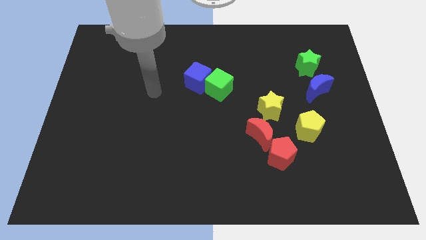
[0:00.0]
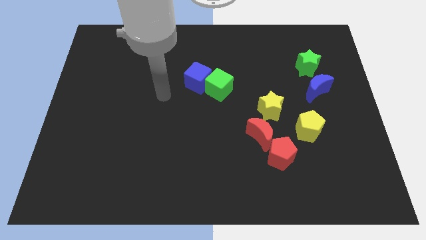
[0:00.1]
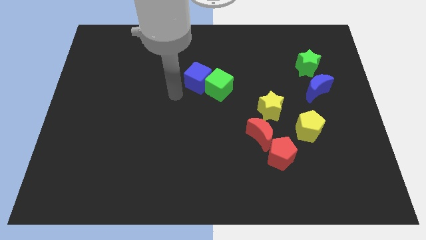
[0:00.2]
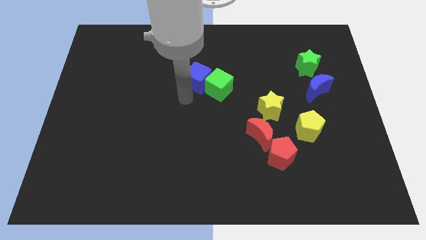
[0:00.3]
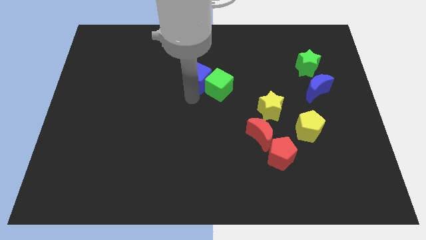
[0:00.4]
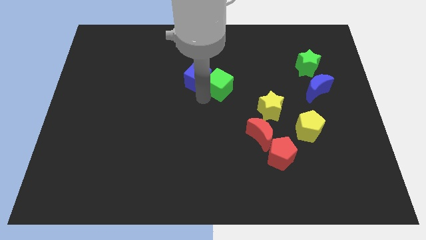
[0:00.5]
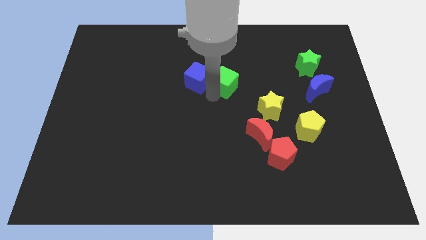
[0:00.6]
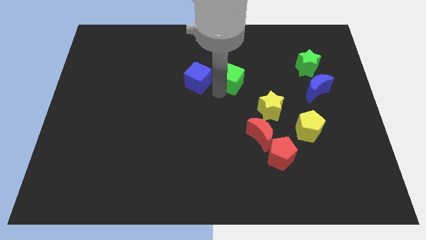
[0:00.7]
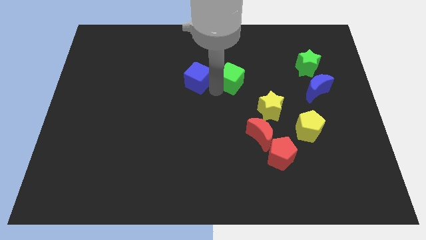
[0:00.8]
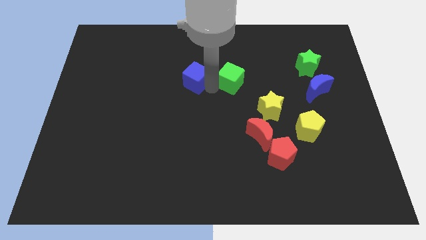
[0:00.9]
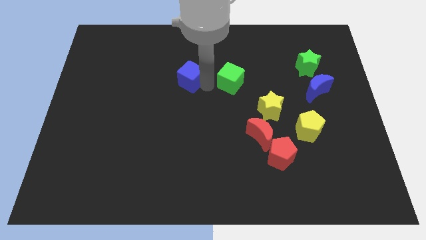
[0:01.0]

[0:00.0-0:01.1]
separate the blue cube from the green cube

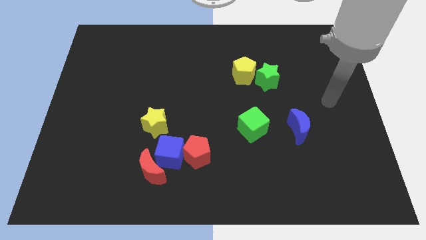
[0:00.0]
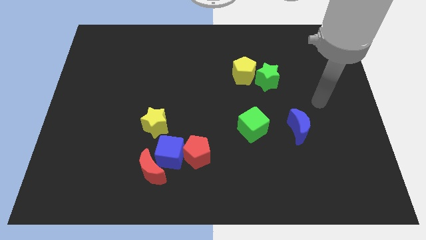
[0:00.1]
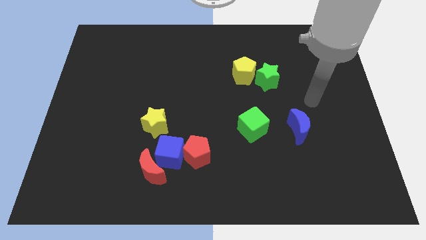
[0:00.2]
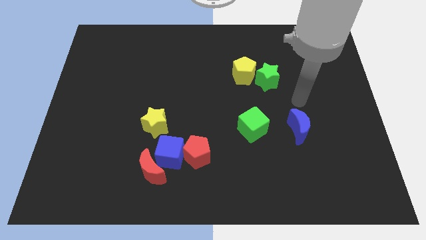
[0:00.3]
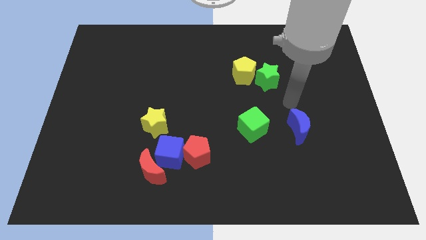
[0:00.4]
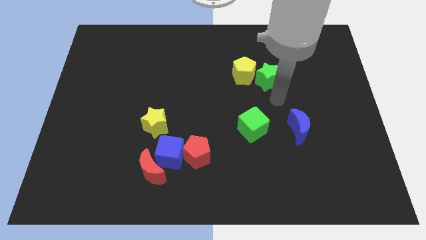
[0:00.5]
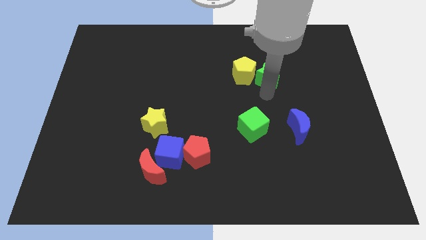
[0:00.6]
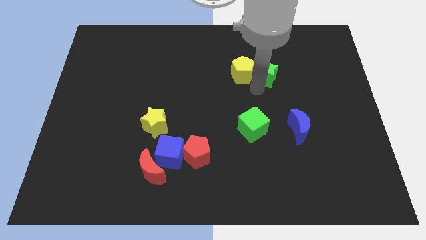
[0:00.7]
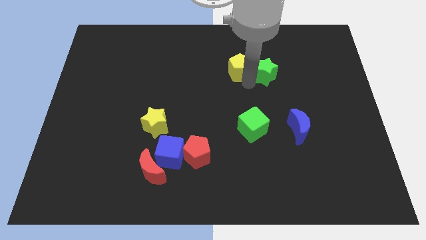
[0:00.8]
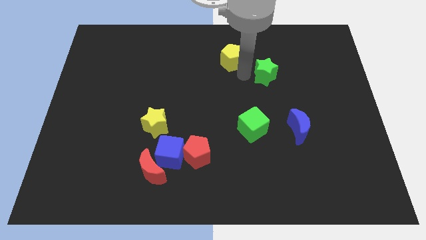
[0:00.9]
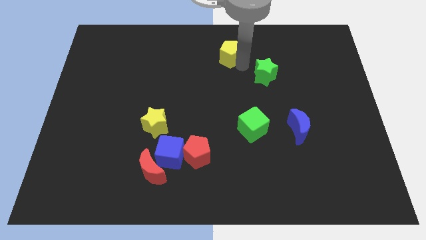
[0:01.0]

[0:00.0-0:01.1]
pull the green star apart from the yellow pentagon

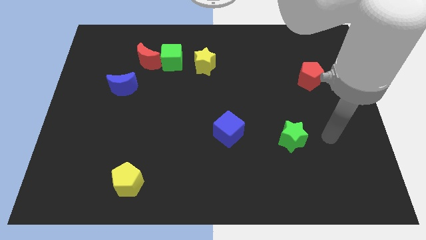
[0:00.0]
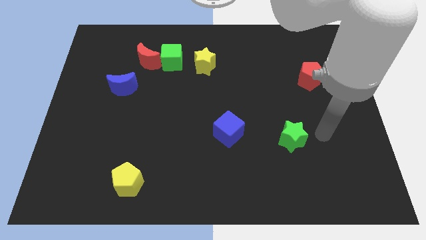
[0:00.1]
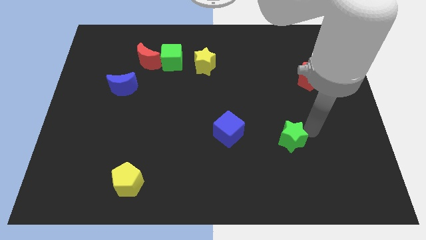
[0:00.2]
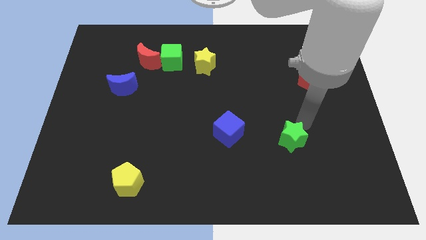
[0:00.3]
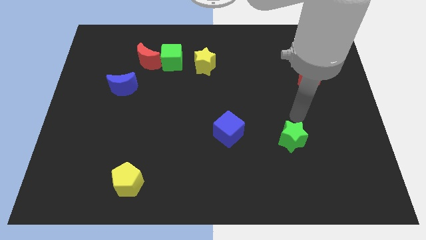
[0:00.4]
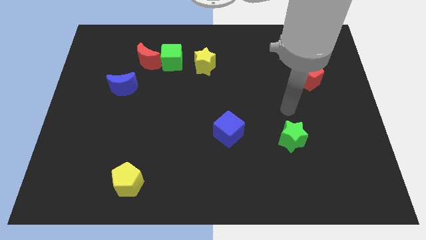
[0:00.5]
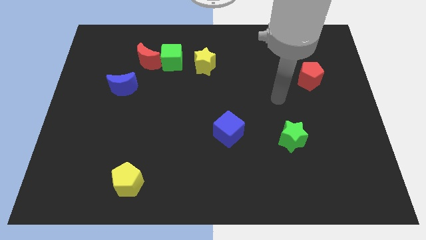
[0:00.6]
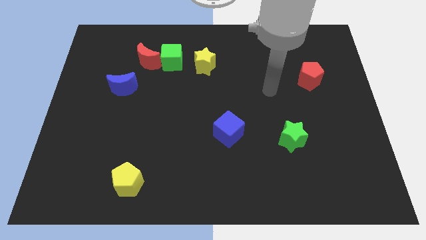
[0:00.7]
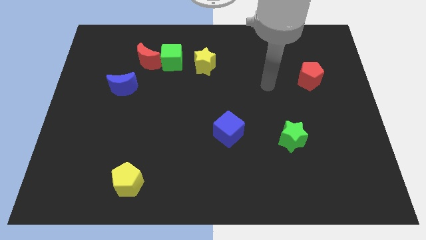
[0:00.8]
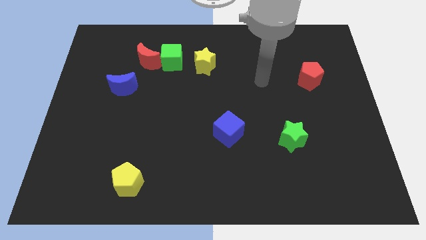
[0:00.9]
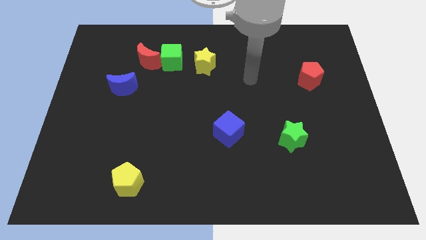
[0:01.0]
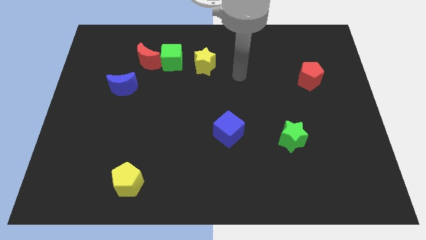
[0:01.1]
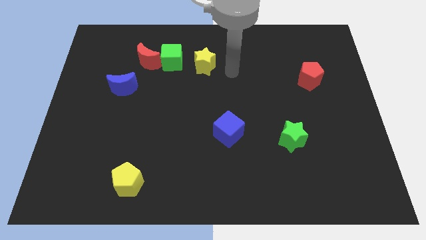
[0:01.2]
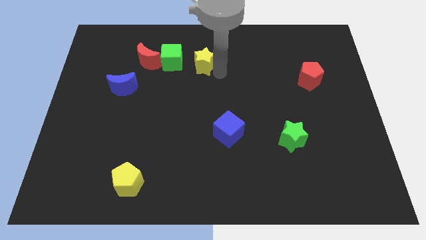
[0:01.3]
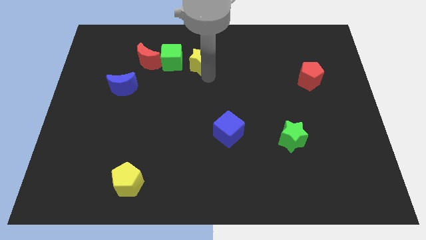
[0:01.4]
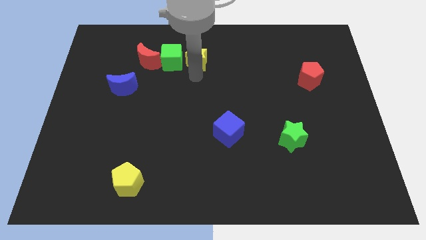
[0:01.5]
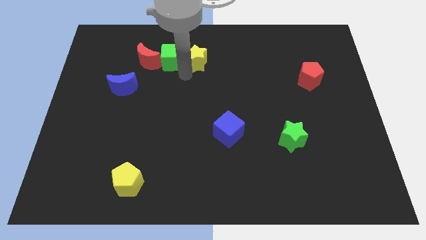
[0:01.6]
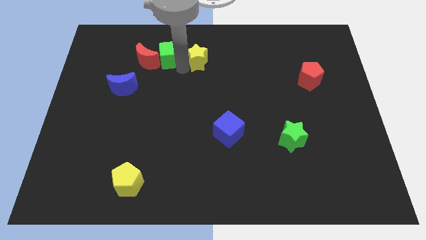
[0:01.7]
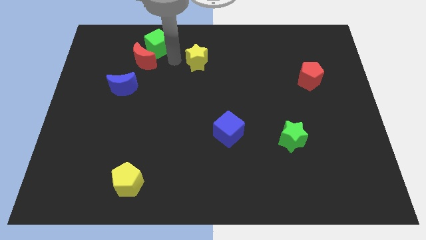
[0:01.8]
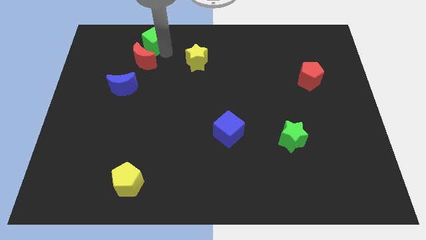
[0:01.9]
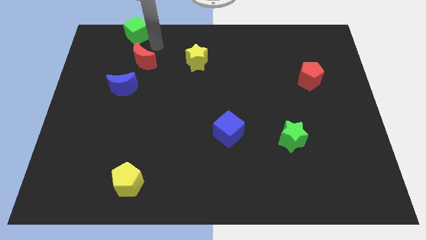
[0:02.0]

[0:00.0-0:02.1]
pull the red moon apart from the green cube

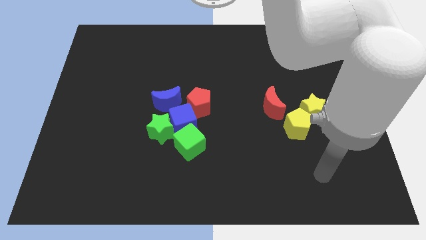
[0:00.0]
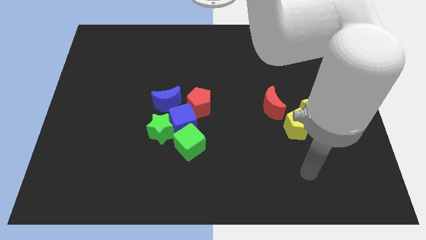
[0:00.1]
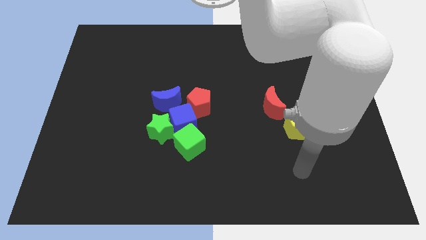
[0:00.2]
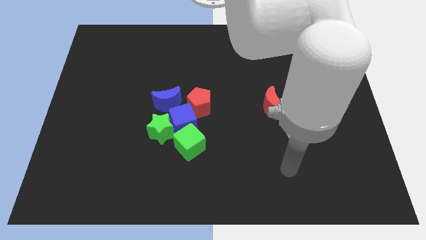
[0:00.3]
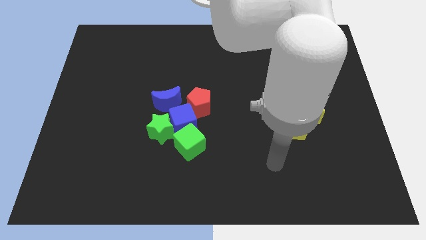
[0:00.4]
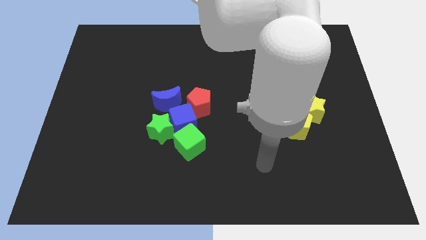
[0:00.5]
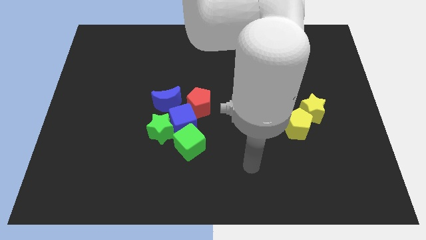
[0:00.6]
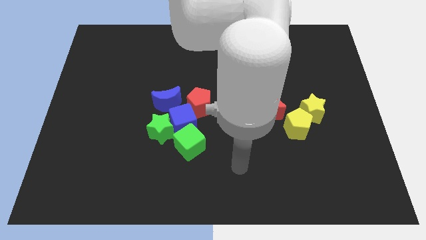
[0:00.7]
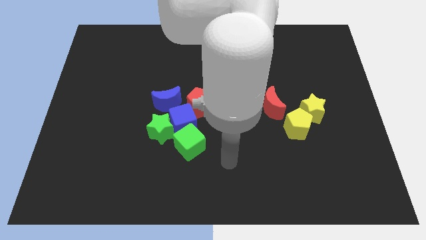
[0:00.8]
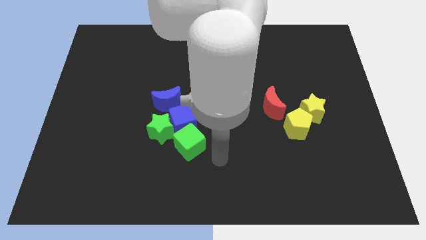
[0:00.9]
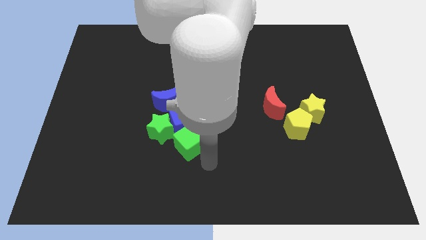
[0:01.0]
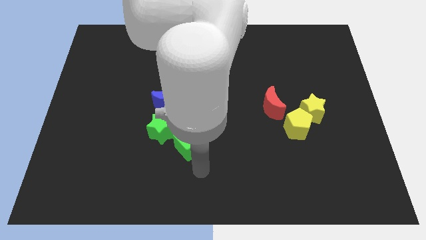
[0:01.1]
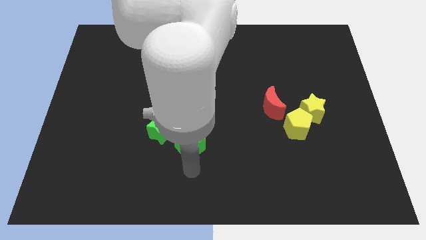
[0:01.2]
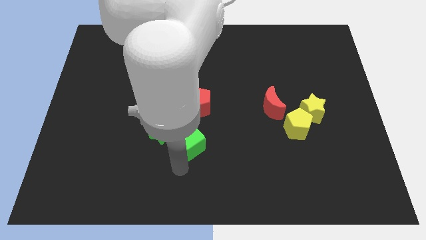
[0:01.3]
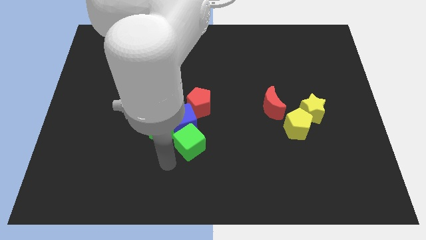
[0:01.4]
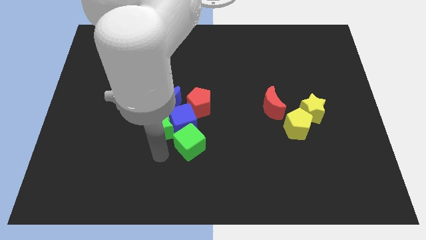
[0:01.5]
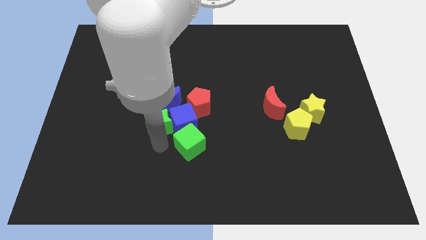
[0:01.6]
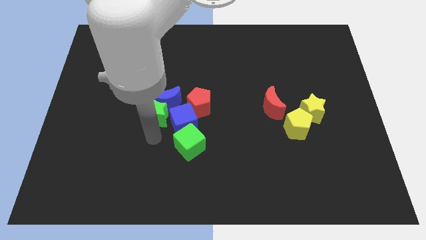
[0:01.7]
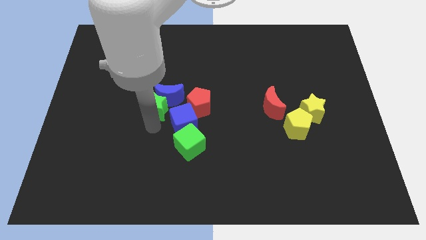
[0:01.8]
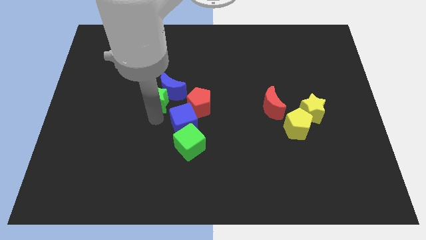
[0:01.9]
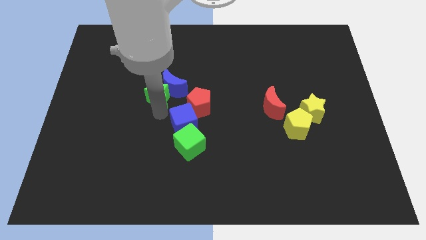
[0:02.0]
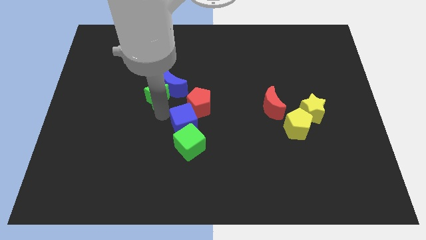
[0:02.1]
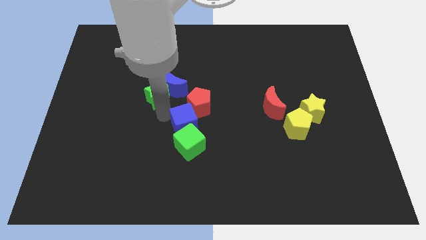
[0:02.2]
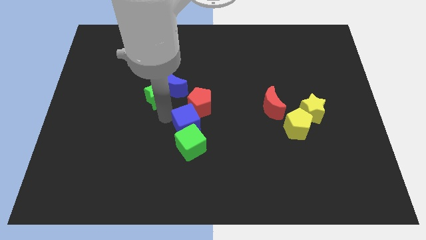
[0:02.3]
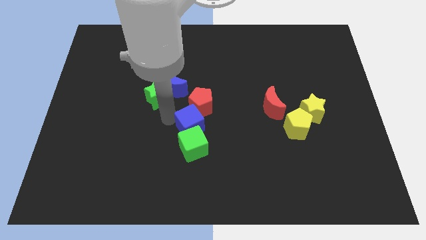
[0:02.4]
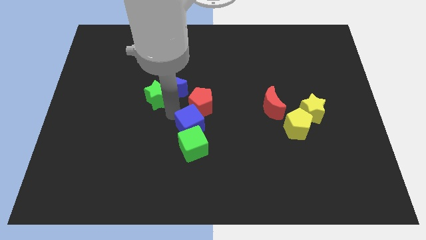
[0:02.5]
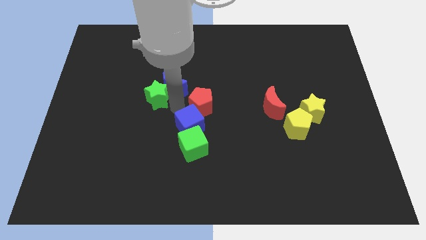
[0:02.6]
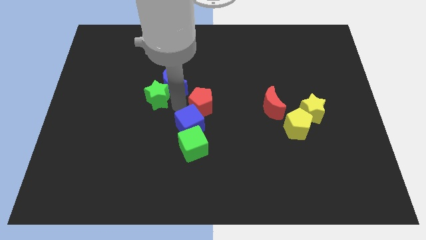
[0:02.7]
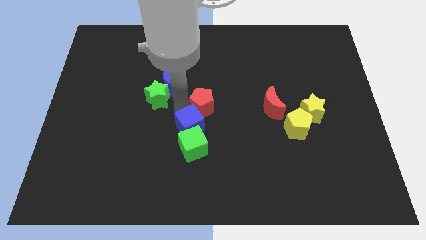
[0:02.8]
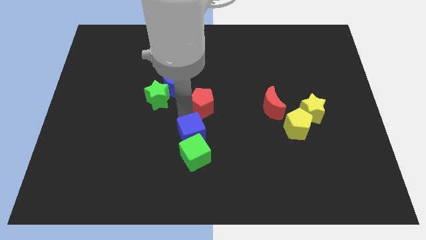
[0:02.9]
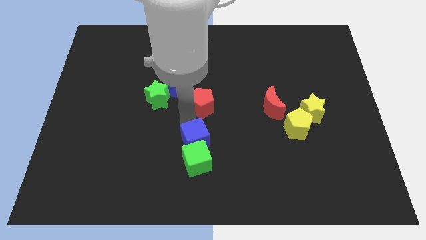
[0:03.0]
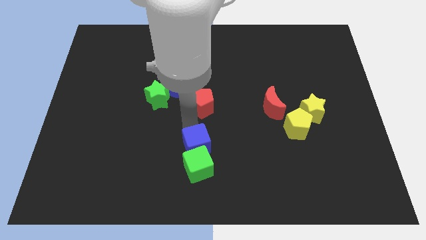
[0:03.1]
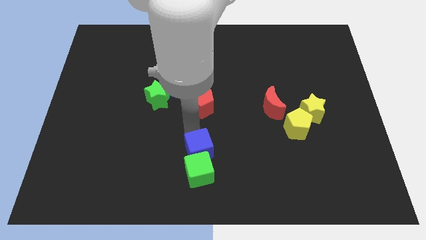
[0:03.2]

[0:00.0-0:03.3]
pull the blue cube apart from the group

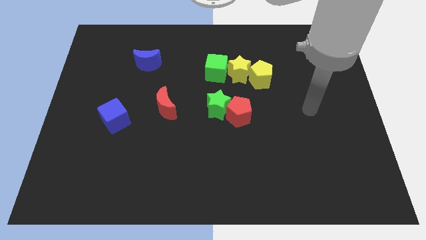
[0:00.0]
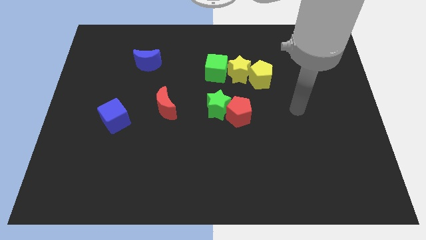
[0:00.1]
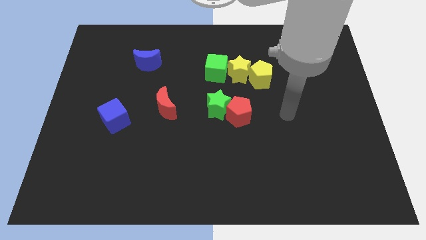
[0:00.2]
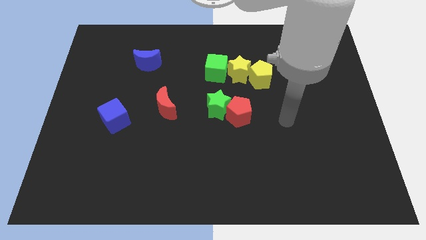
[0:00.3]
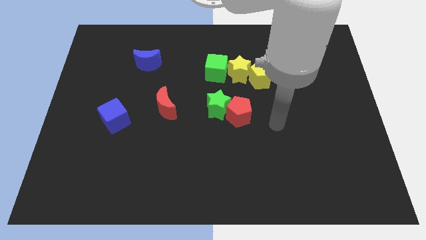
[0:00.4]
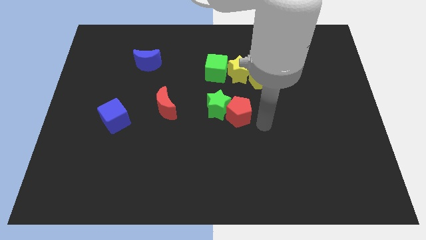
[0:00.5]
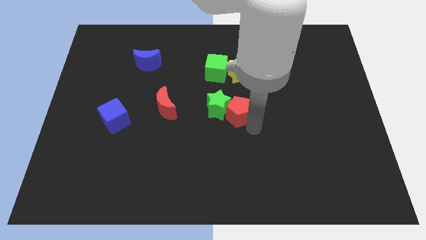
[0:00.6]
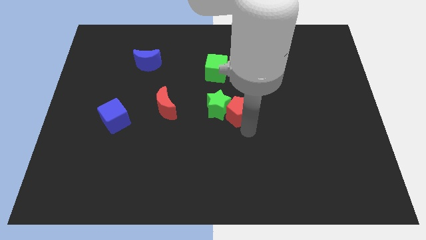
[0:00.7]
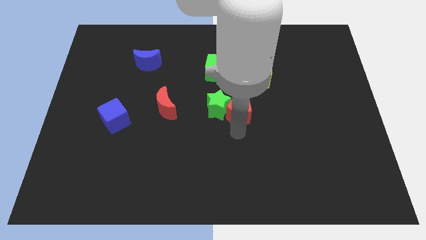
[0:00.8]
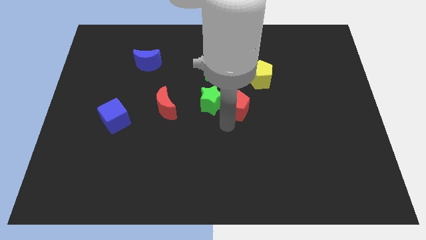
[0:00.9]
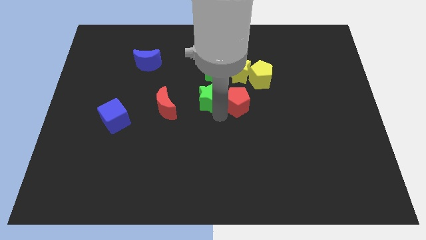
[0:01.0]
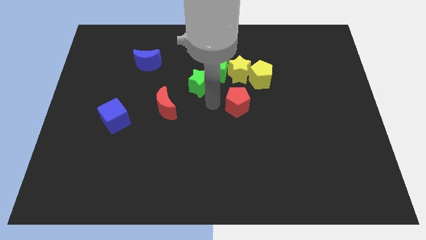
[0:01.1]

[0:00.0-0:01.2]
separate the red pentagon from the green star

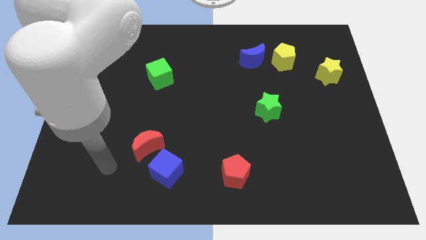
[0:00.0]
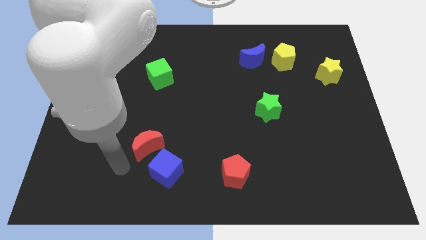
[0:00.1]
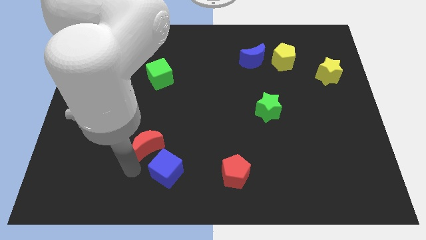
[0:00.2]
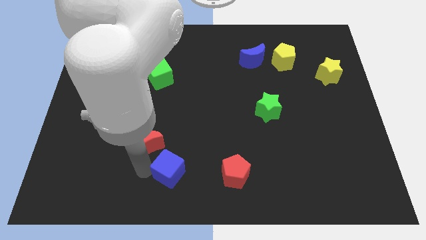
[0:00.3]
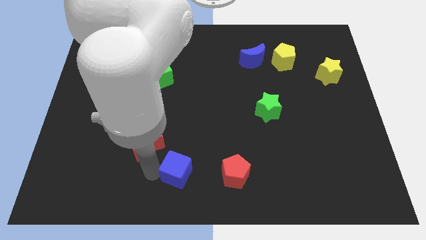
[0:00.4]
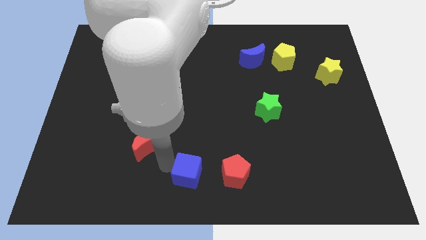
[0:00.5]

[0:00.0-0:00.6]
move the red moon away from the blue cube
